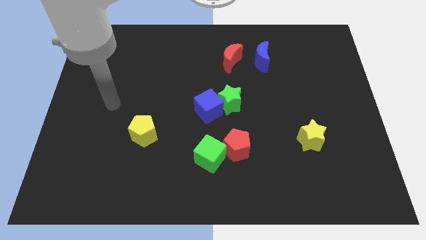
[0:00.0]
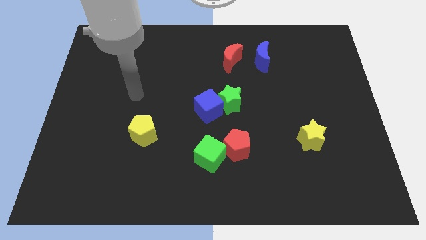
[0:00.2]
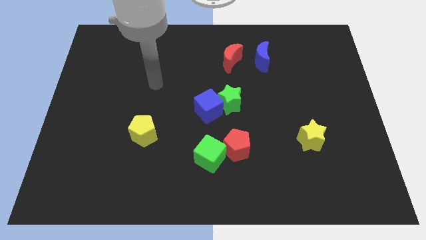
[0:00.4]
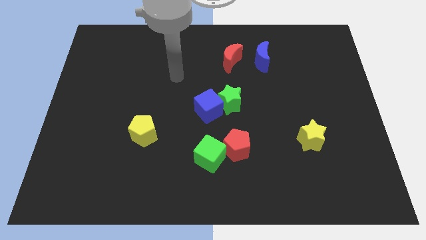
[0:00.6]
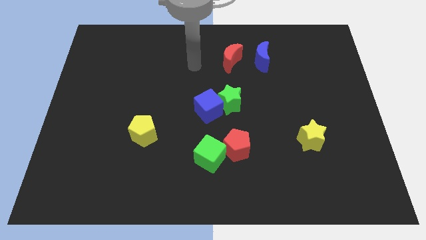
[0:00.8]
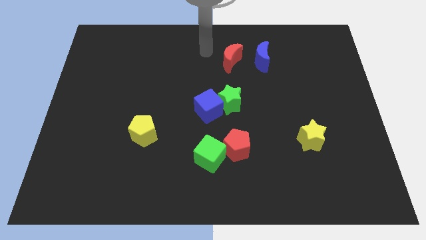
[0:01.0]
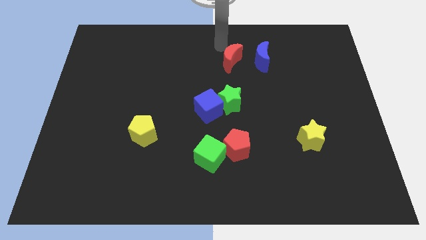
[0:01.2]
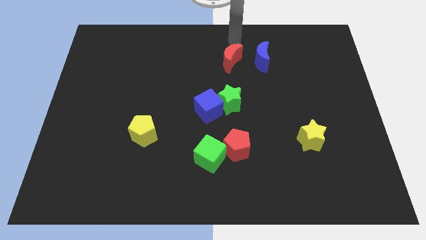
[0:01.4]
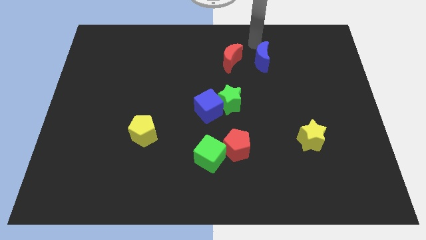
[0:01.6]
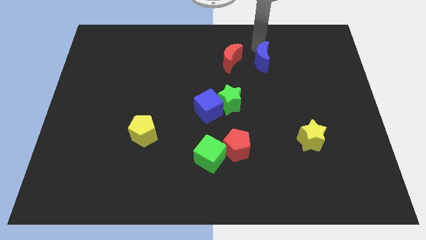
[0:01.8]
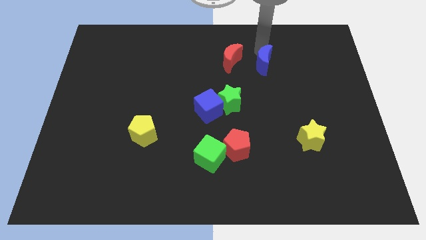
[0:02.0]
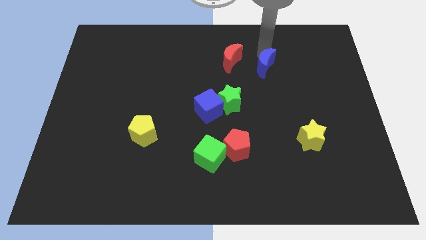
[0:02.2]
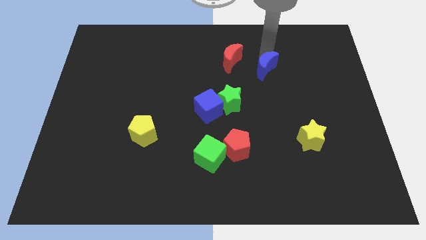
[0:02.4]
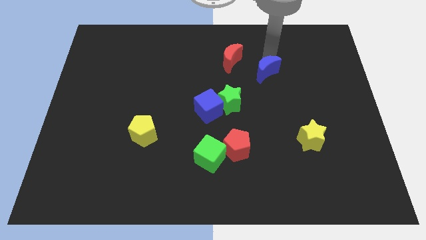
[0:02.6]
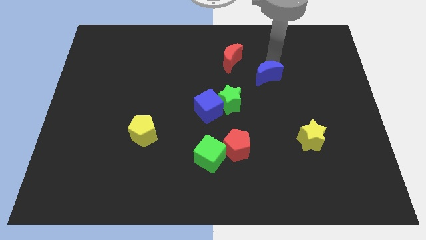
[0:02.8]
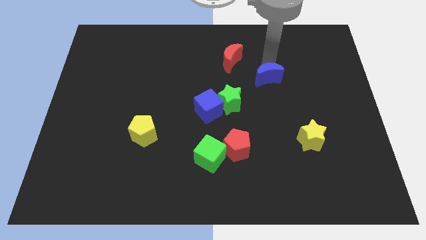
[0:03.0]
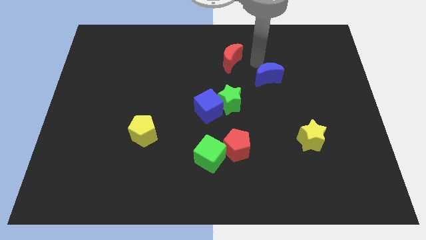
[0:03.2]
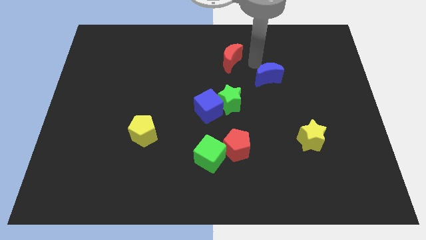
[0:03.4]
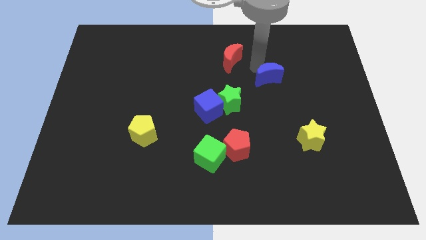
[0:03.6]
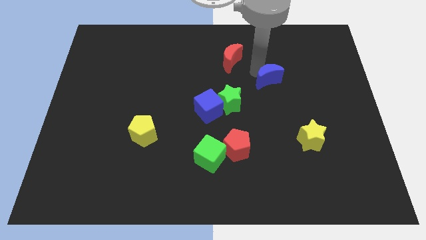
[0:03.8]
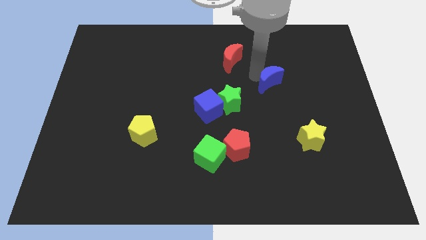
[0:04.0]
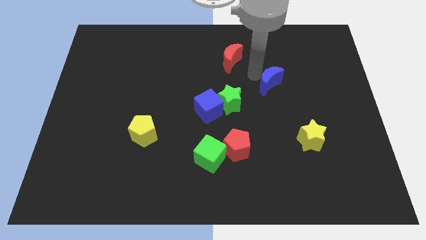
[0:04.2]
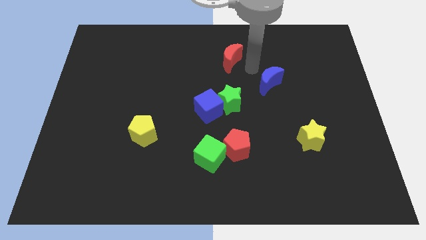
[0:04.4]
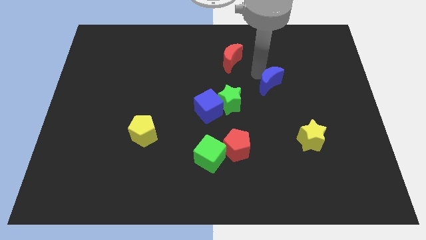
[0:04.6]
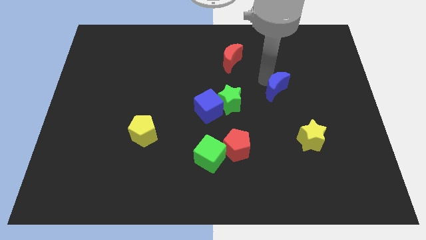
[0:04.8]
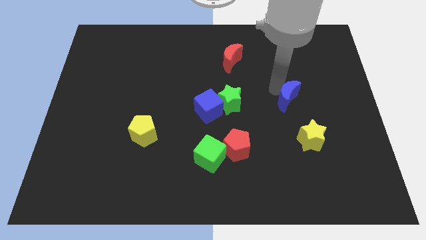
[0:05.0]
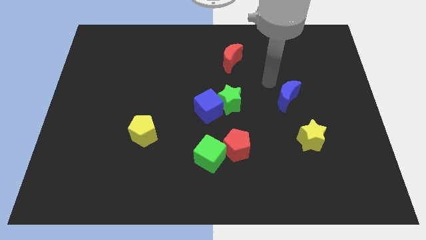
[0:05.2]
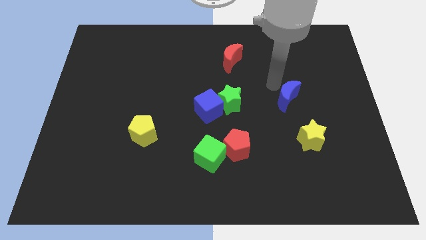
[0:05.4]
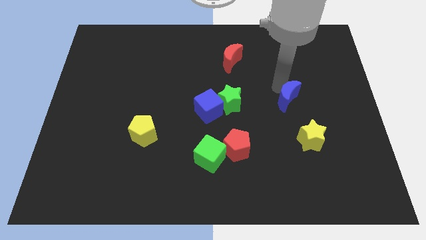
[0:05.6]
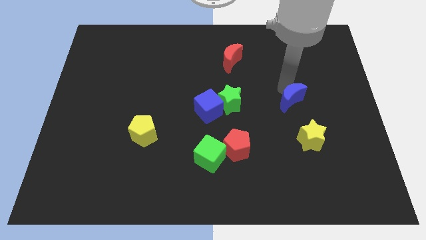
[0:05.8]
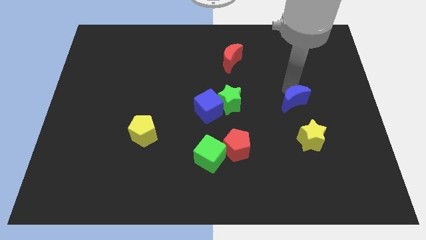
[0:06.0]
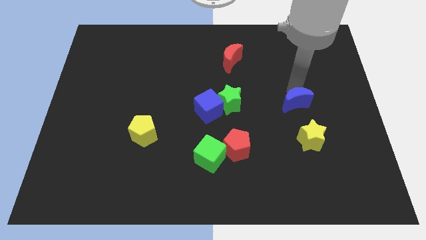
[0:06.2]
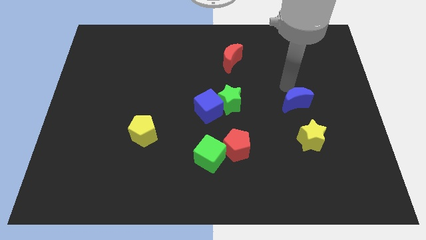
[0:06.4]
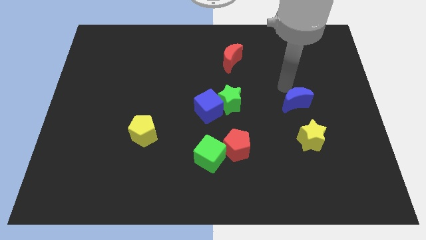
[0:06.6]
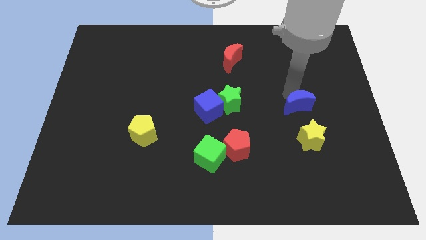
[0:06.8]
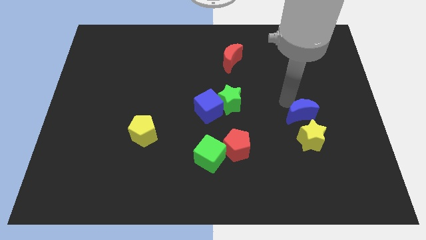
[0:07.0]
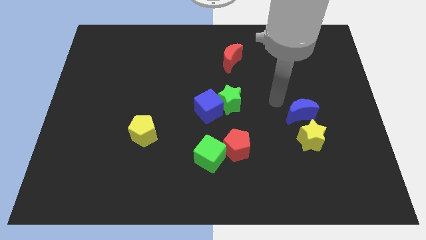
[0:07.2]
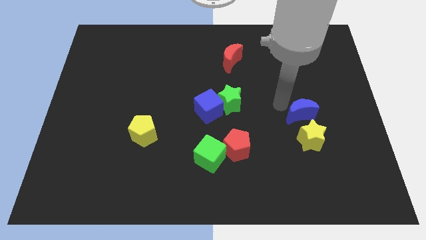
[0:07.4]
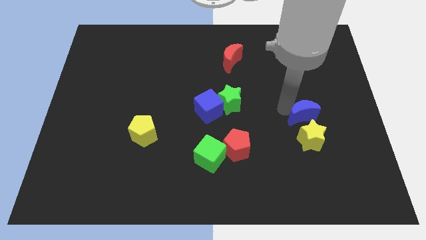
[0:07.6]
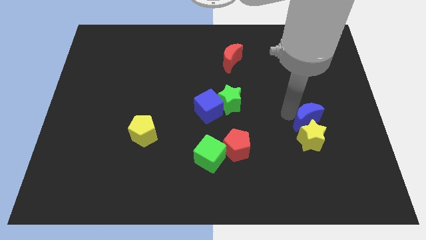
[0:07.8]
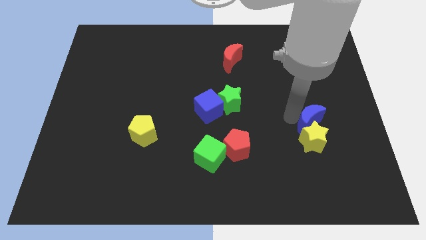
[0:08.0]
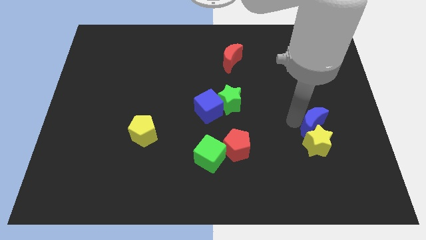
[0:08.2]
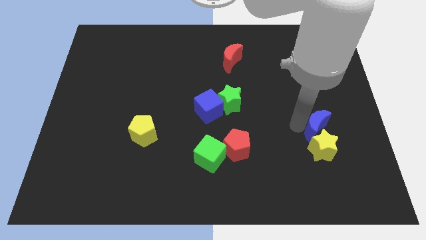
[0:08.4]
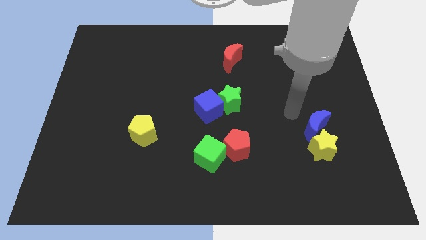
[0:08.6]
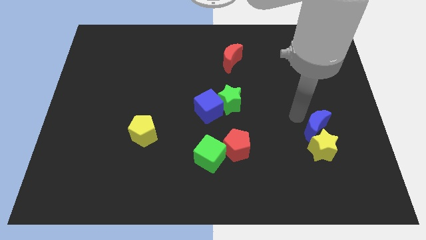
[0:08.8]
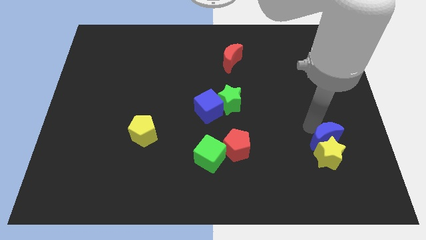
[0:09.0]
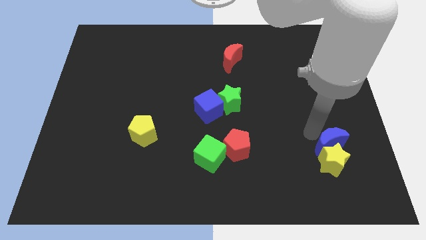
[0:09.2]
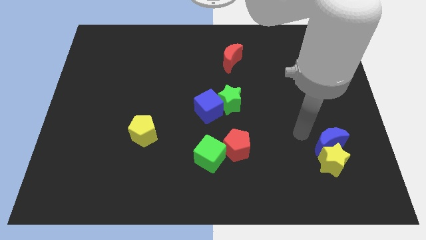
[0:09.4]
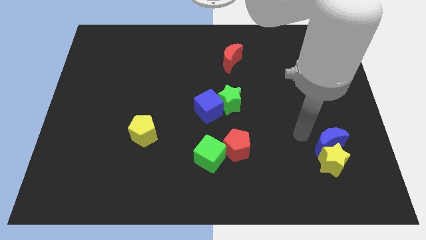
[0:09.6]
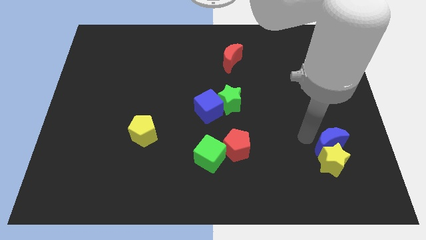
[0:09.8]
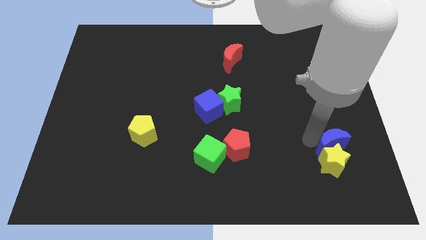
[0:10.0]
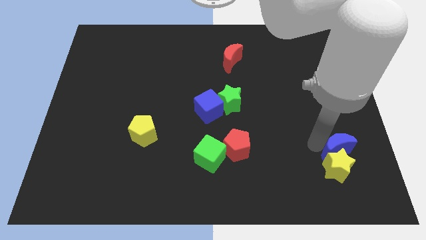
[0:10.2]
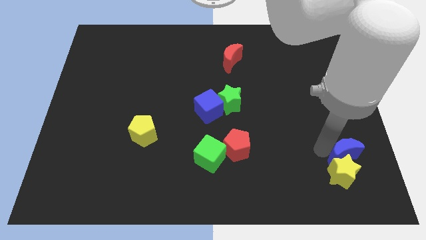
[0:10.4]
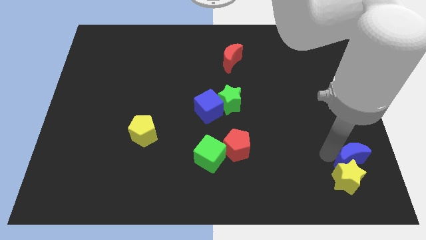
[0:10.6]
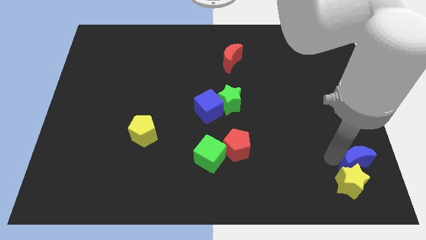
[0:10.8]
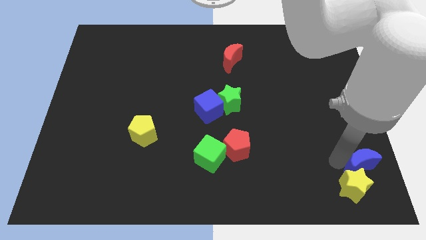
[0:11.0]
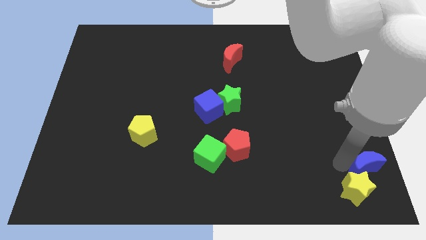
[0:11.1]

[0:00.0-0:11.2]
put the blue moon to the lower right corner
